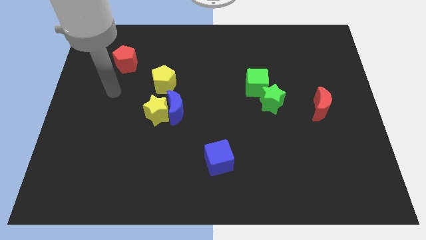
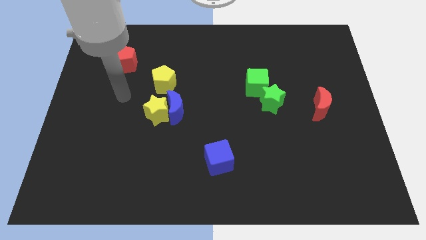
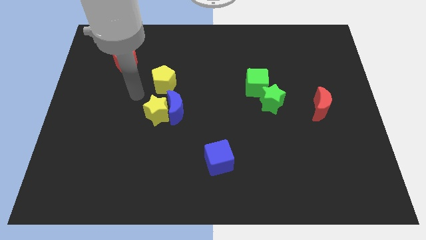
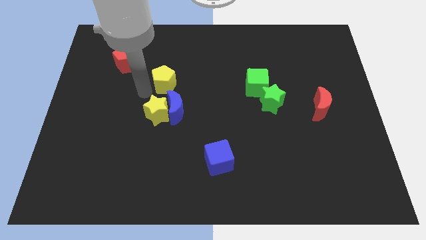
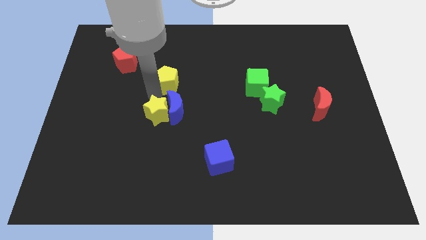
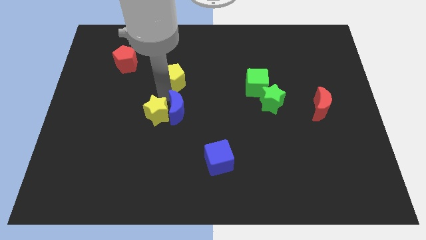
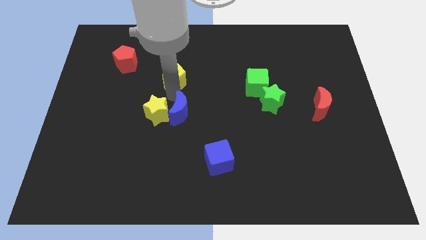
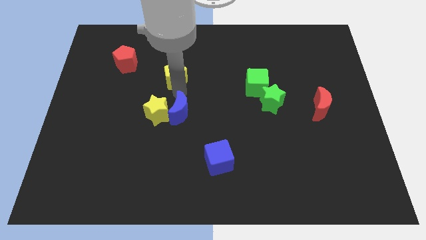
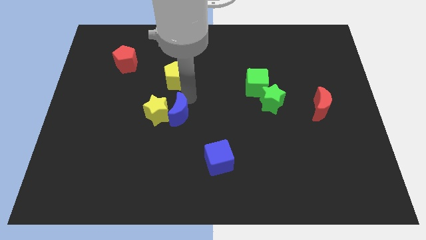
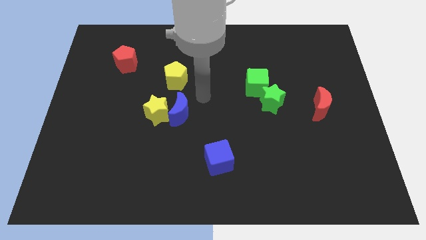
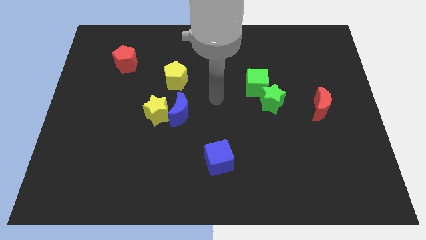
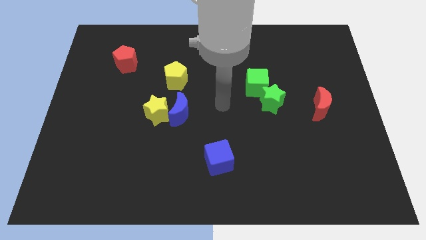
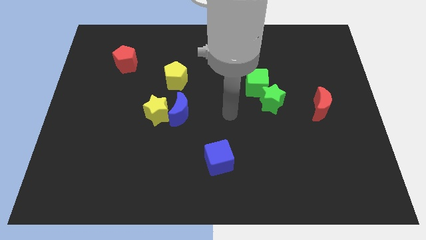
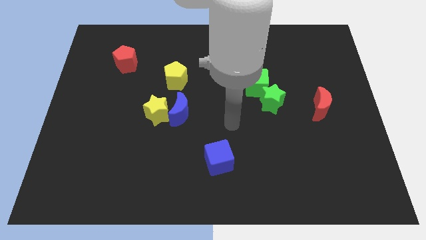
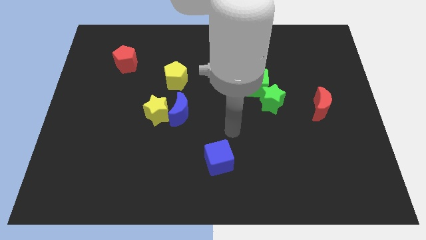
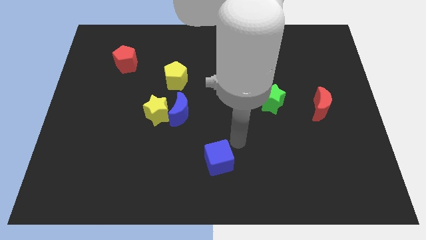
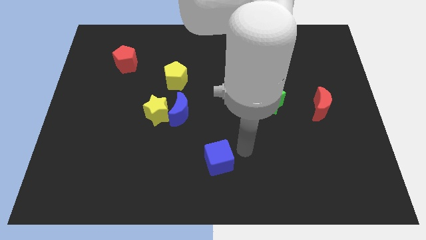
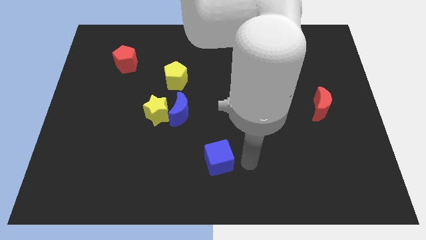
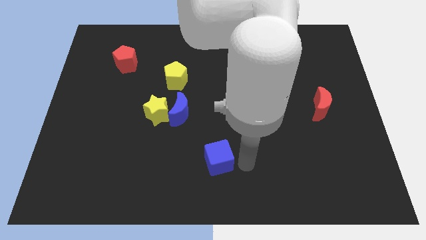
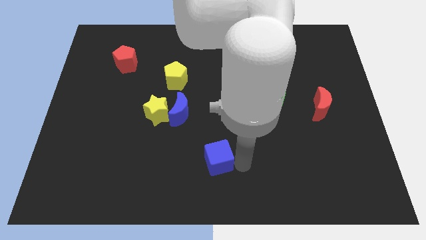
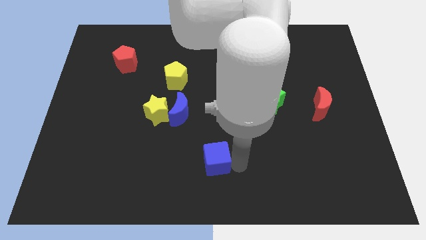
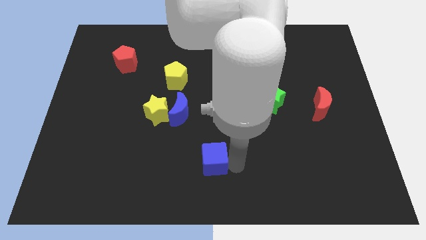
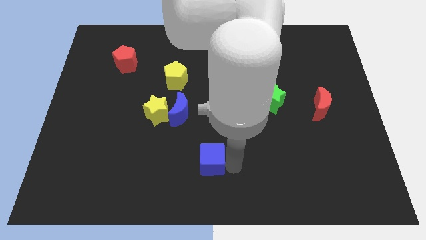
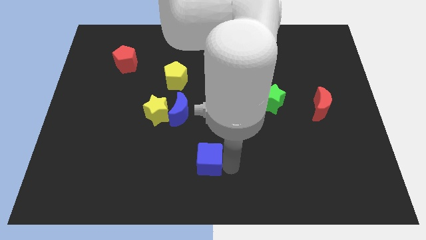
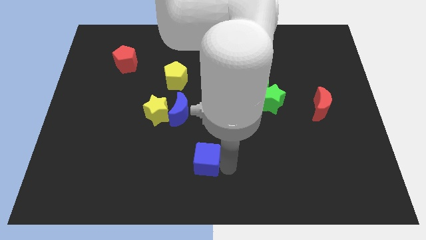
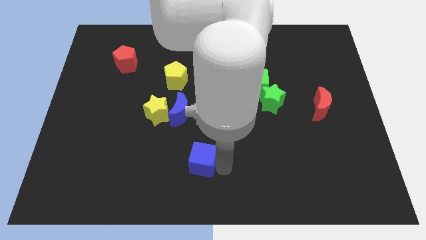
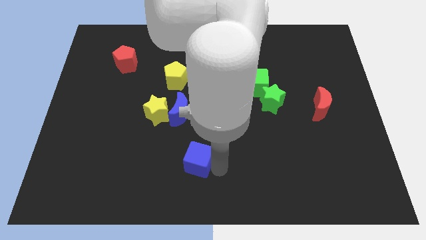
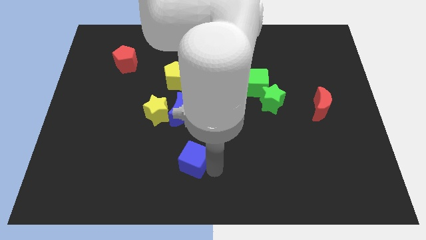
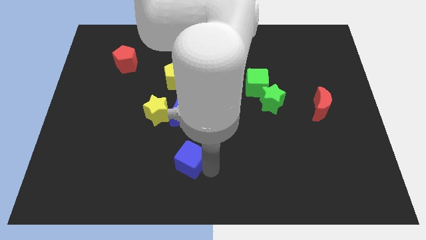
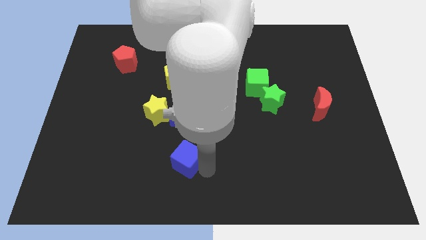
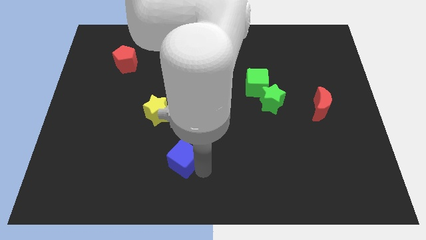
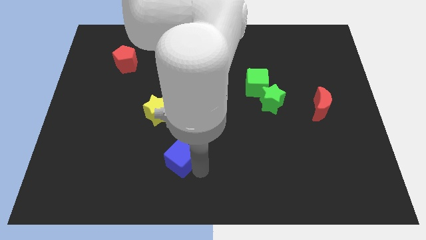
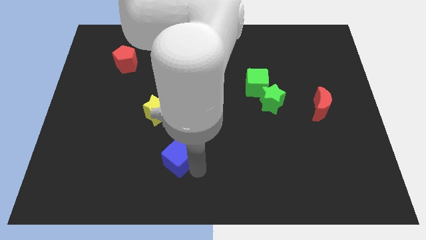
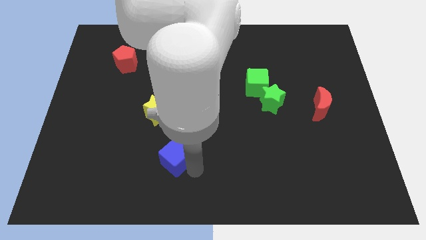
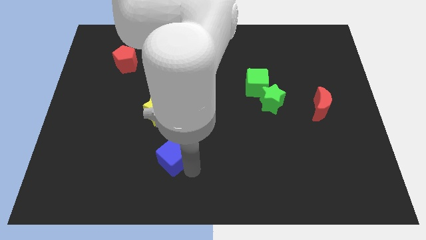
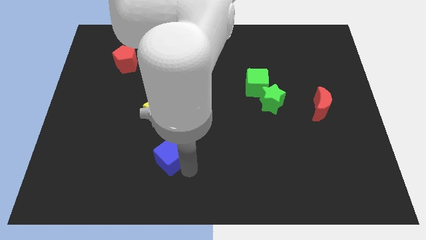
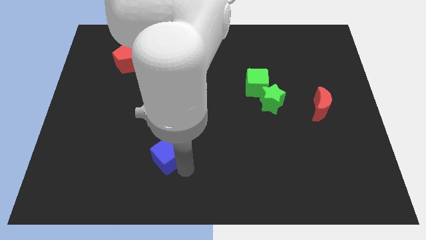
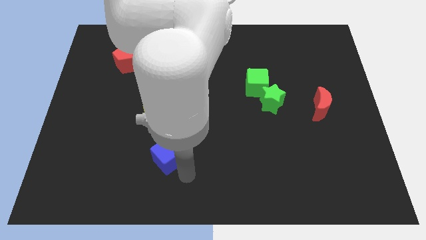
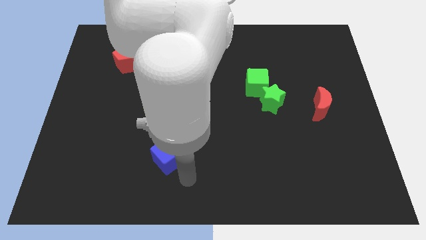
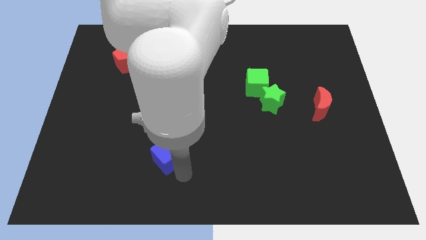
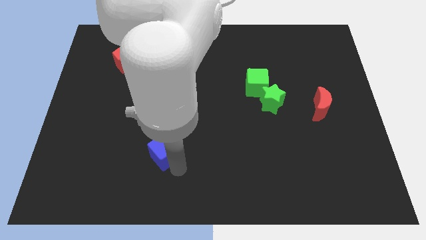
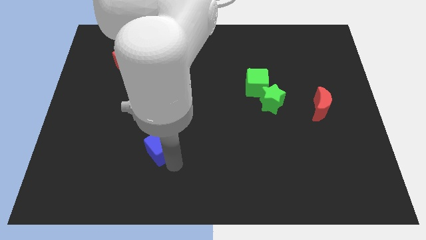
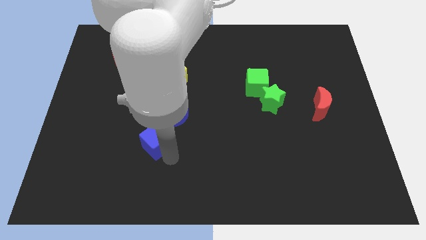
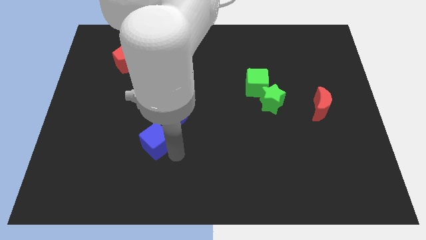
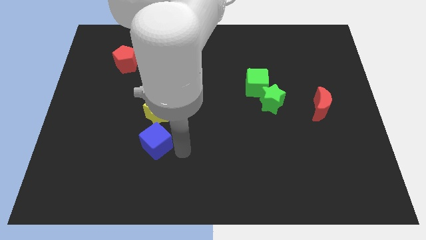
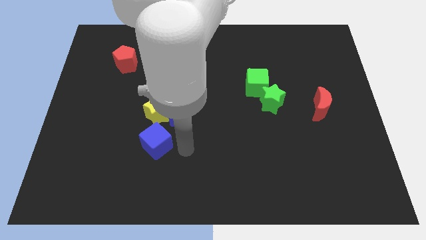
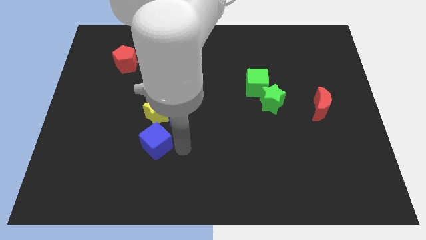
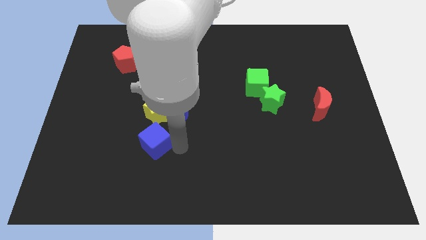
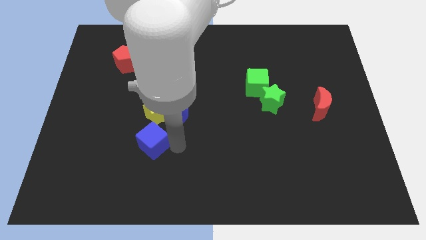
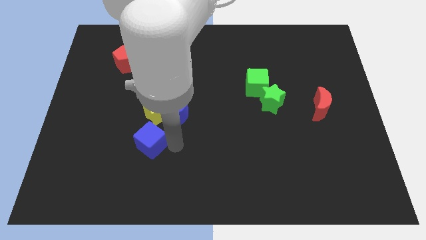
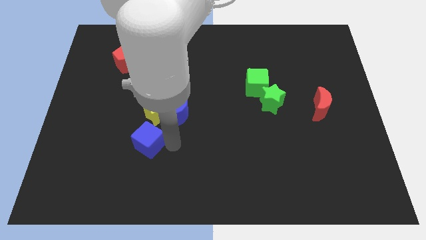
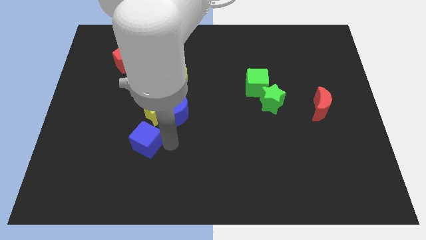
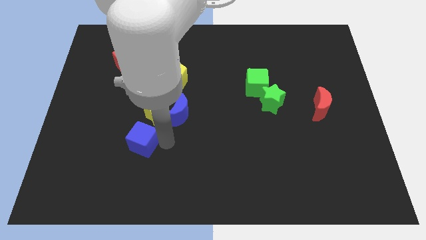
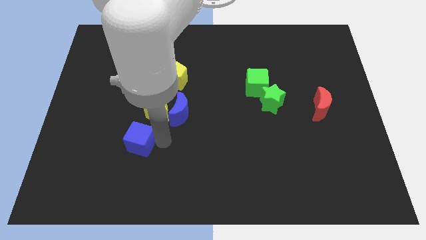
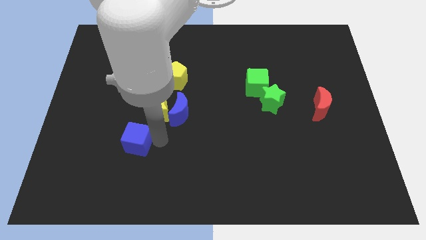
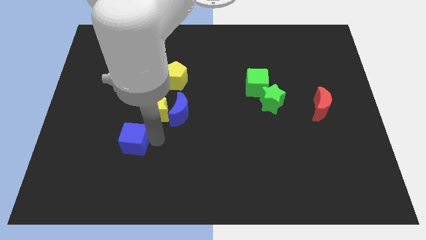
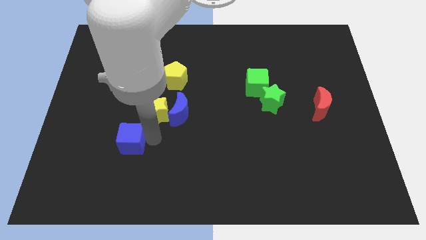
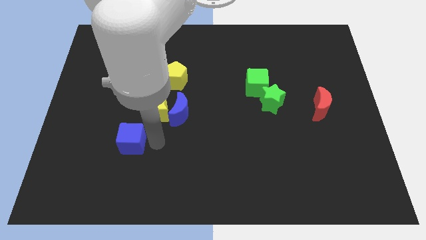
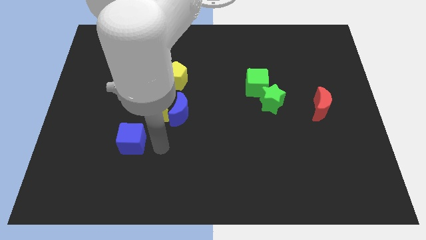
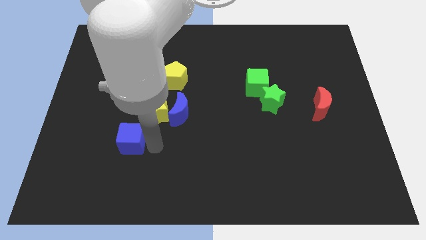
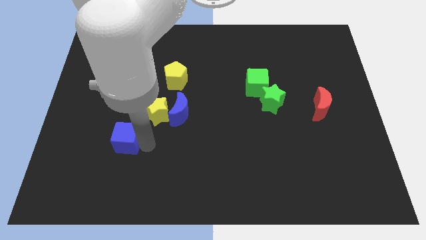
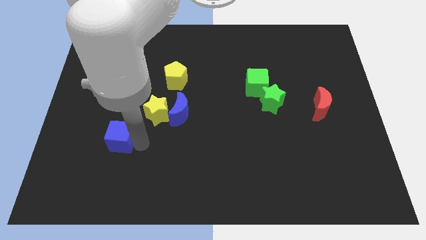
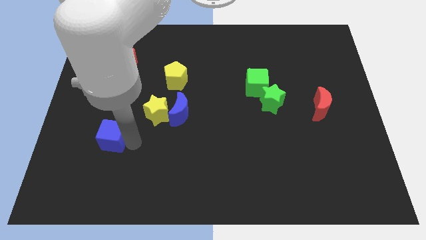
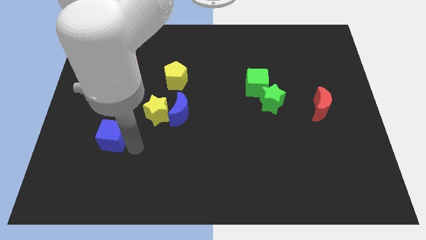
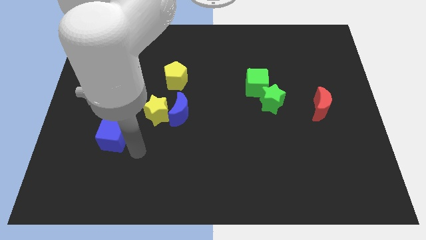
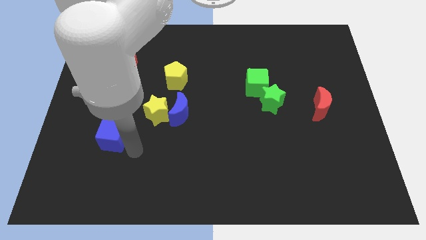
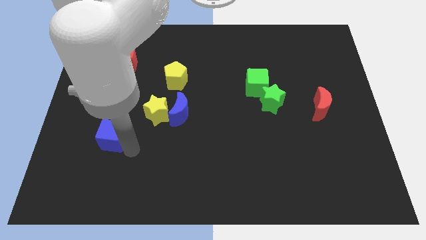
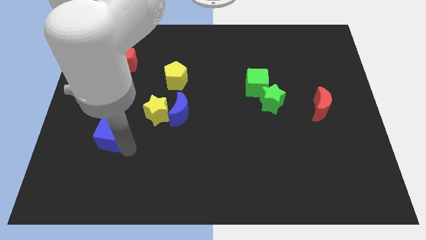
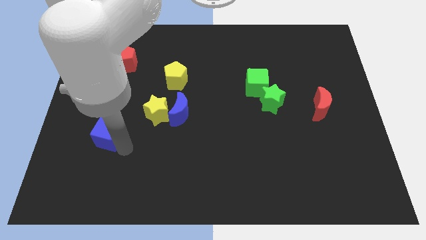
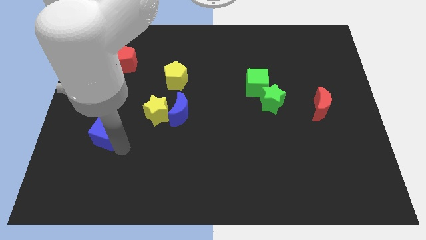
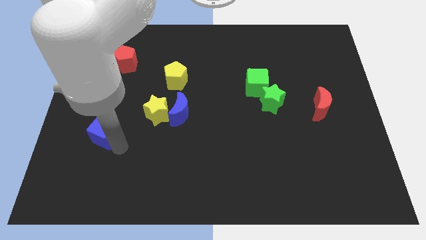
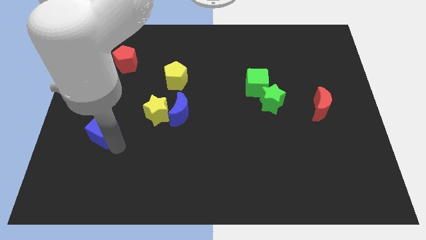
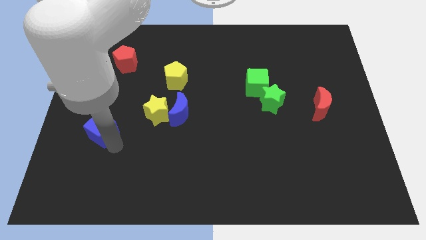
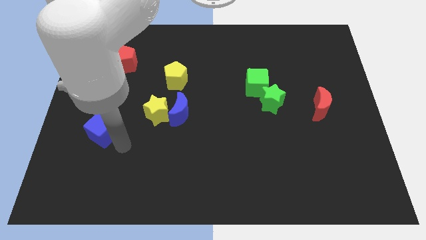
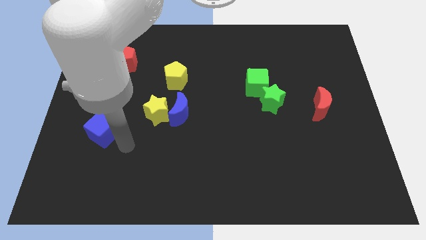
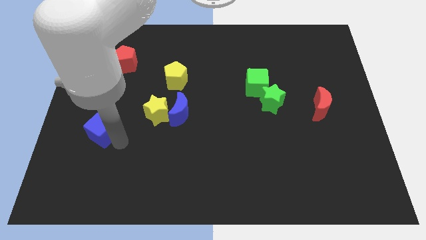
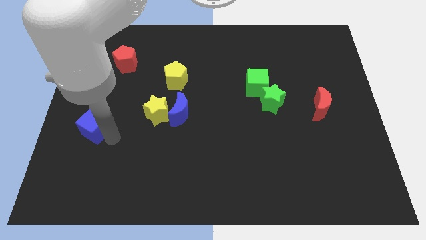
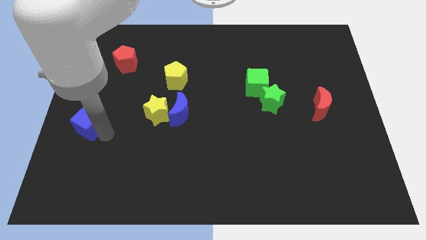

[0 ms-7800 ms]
move the blue cube to the left side
